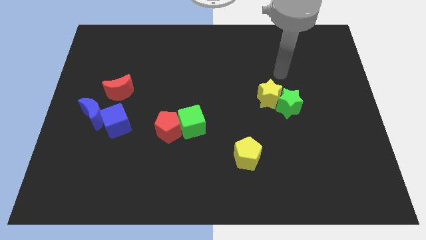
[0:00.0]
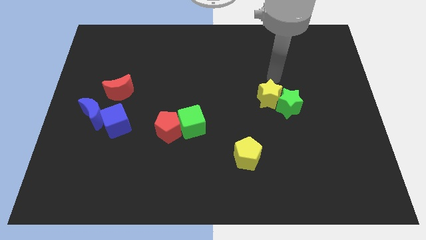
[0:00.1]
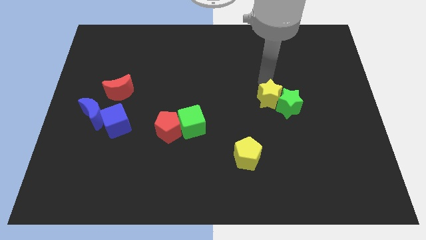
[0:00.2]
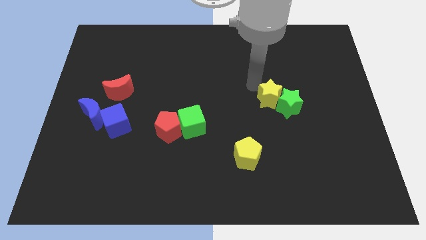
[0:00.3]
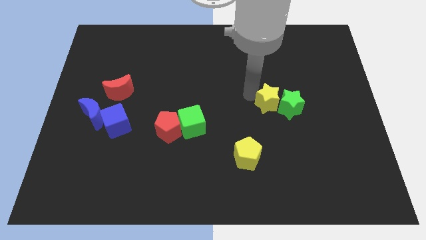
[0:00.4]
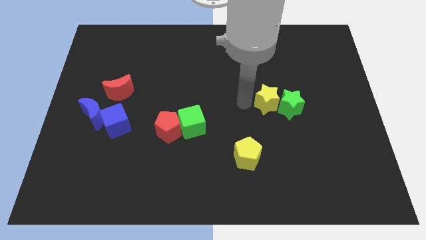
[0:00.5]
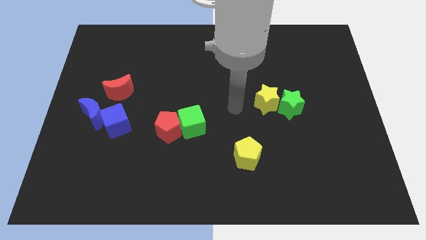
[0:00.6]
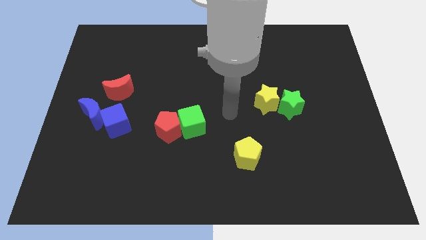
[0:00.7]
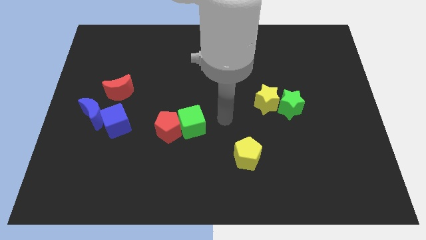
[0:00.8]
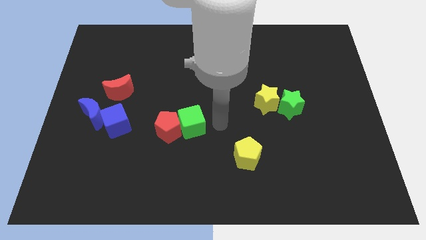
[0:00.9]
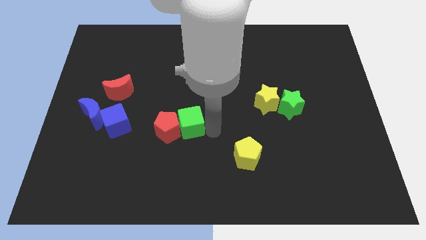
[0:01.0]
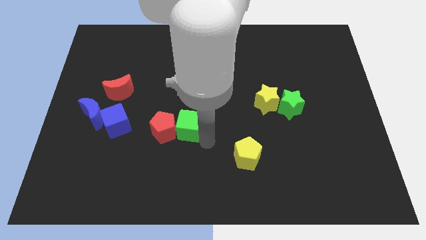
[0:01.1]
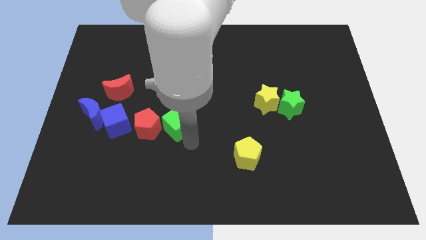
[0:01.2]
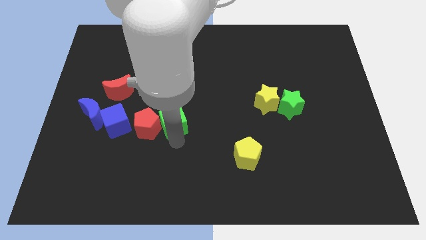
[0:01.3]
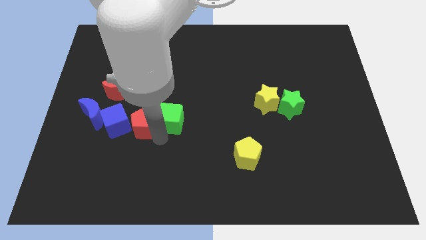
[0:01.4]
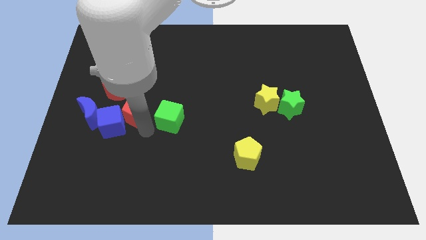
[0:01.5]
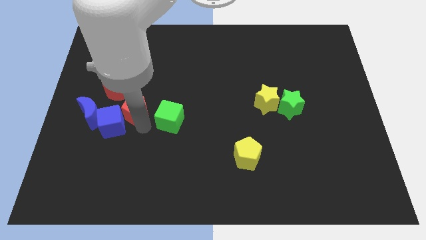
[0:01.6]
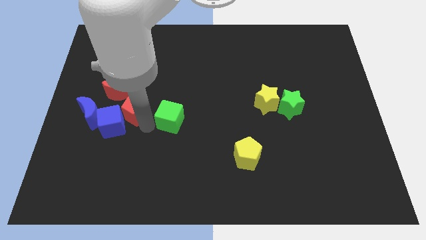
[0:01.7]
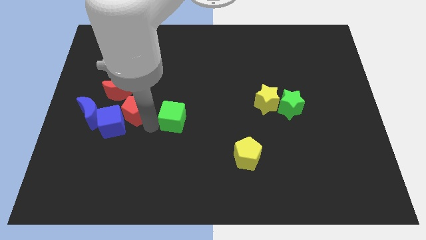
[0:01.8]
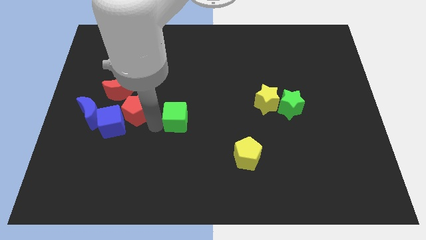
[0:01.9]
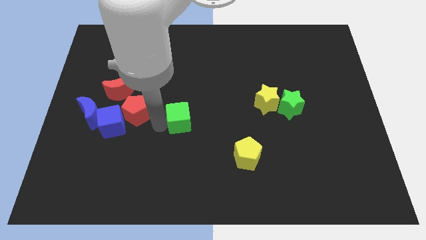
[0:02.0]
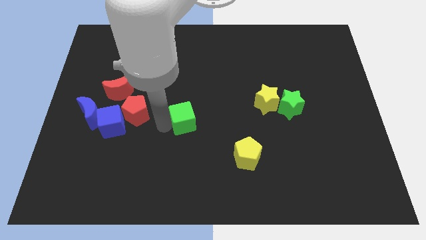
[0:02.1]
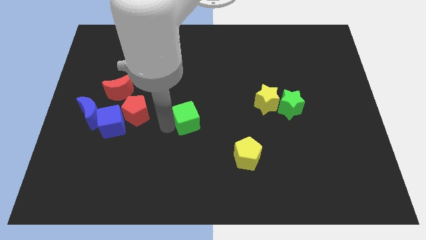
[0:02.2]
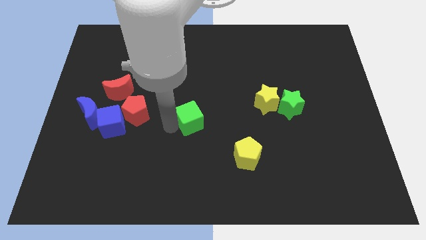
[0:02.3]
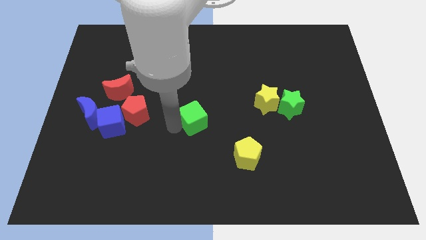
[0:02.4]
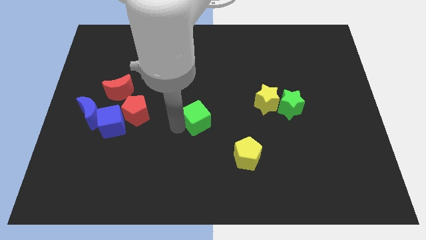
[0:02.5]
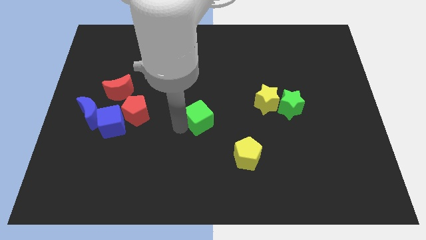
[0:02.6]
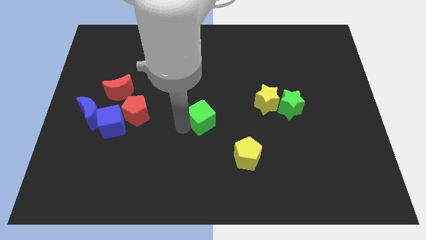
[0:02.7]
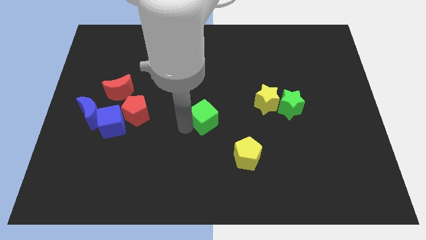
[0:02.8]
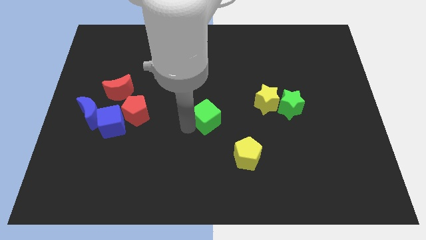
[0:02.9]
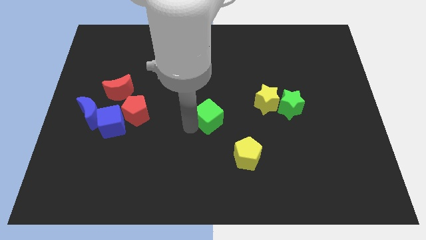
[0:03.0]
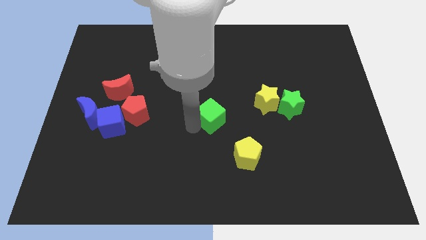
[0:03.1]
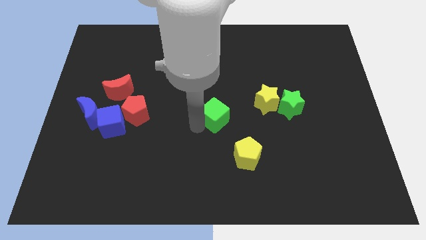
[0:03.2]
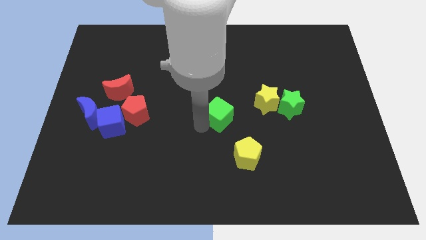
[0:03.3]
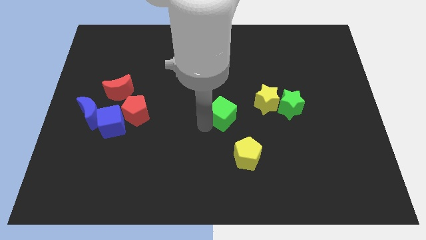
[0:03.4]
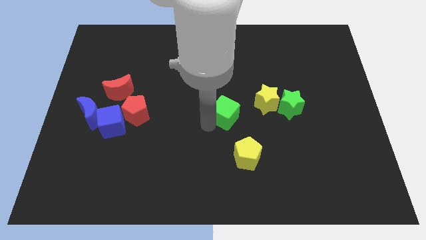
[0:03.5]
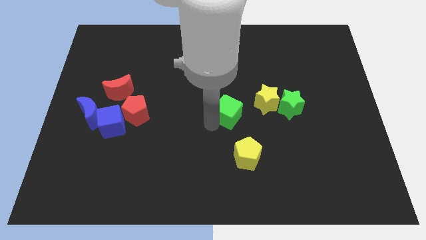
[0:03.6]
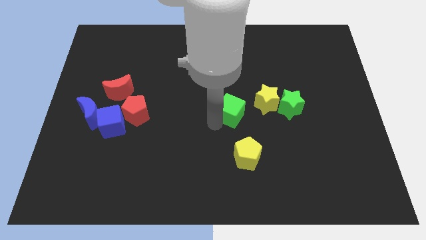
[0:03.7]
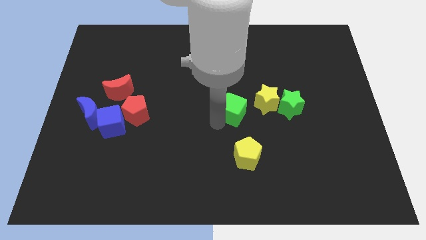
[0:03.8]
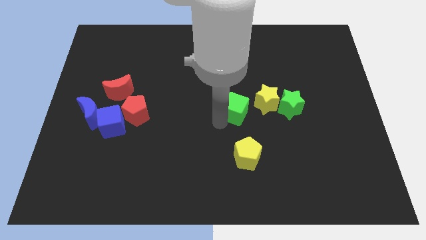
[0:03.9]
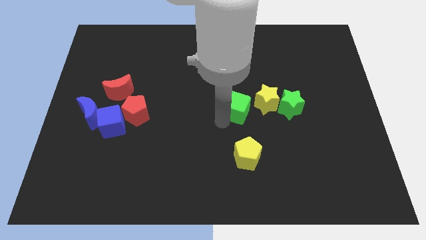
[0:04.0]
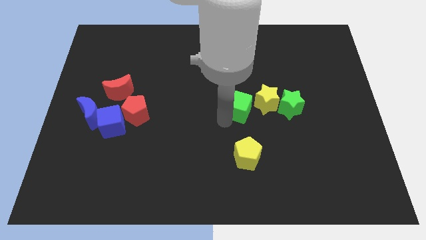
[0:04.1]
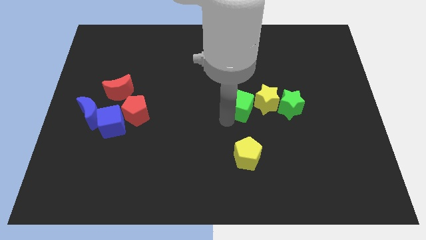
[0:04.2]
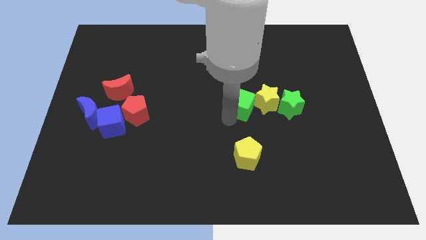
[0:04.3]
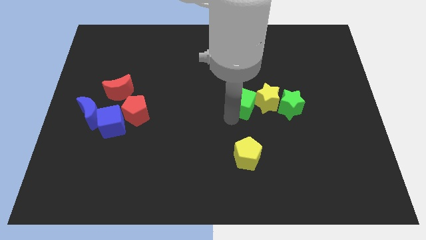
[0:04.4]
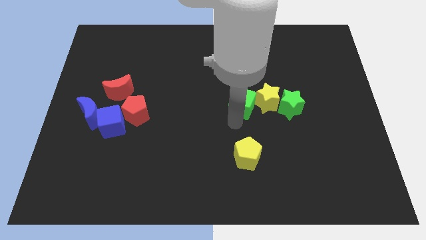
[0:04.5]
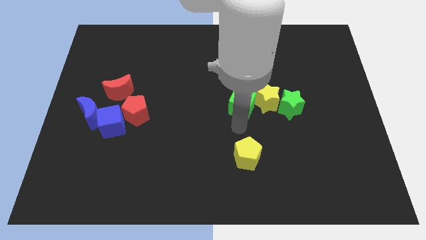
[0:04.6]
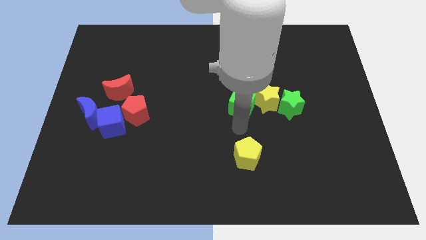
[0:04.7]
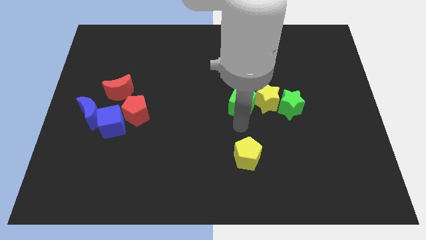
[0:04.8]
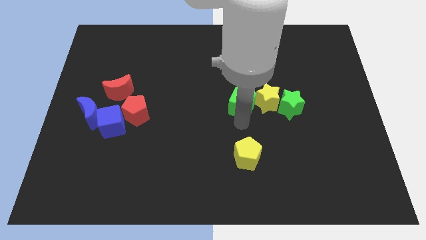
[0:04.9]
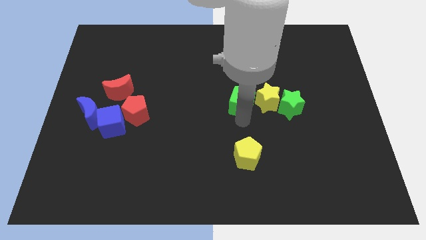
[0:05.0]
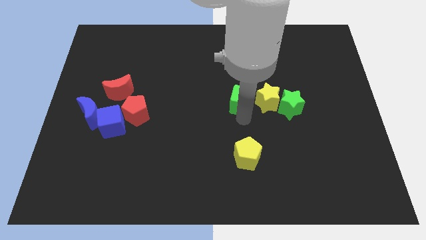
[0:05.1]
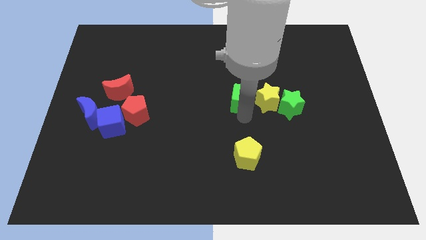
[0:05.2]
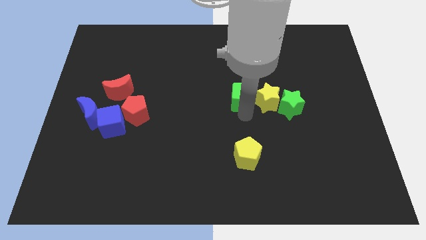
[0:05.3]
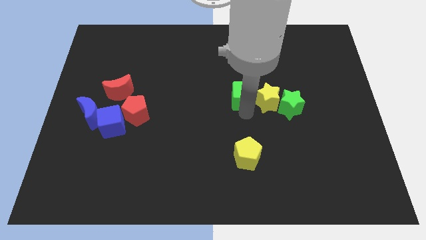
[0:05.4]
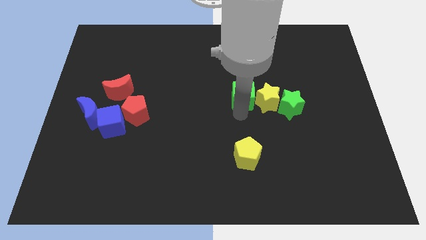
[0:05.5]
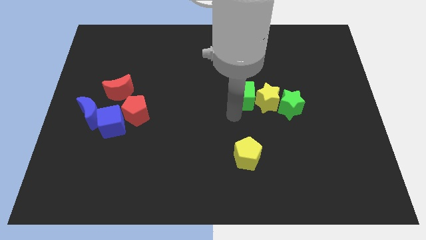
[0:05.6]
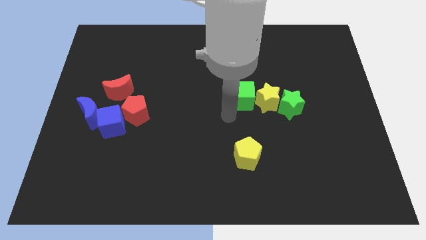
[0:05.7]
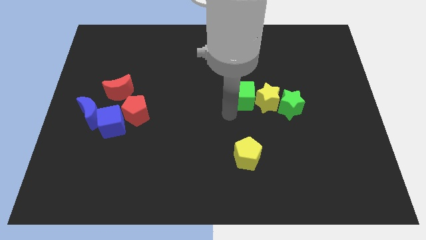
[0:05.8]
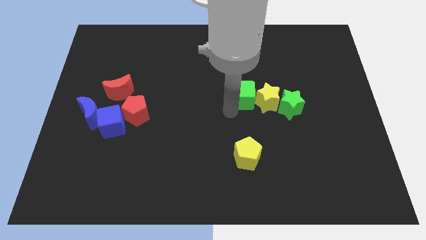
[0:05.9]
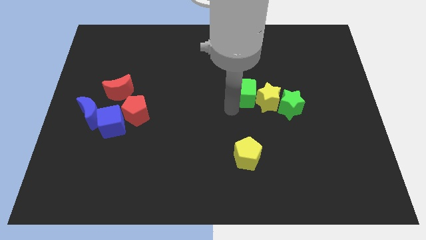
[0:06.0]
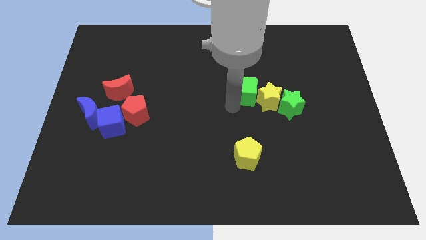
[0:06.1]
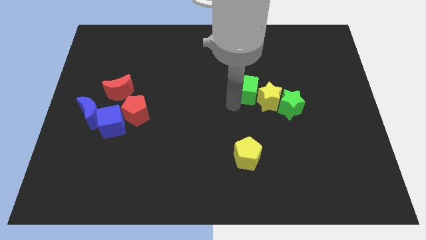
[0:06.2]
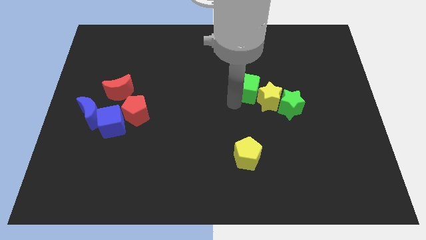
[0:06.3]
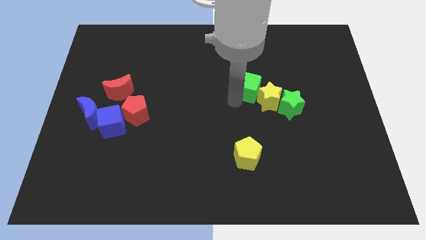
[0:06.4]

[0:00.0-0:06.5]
put the green cube above the yellow star

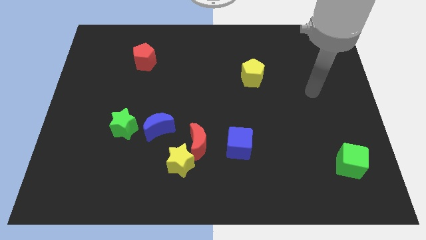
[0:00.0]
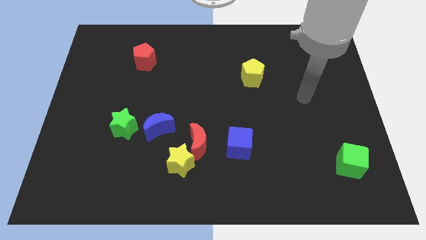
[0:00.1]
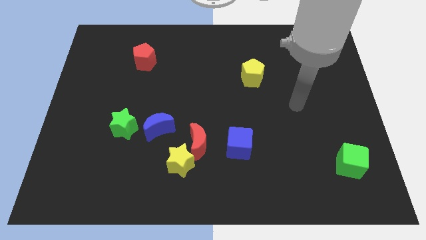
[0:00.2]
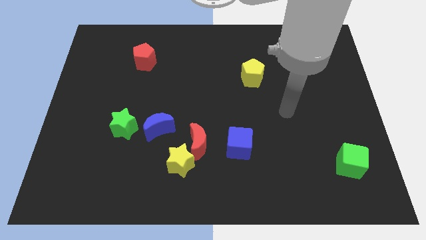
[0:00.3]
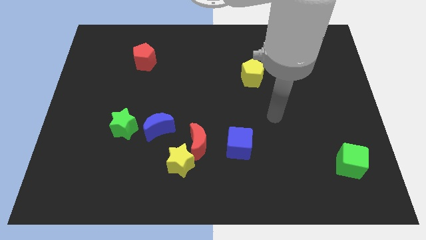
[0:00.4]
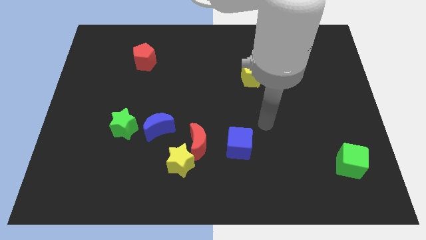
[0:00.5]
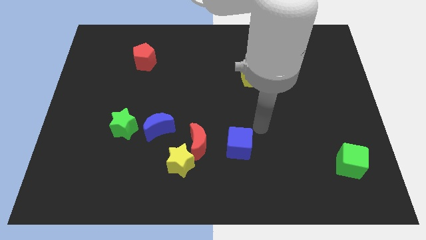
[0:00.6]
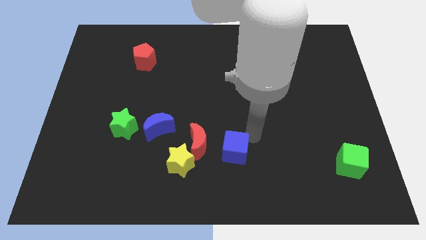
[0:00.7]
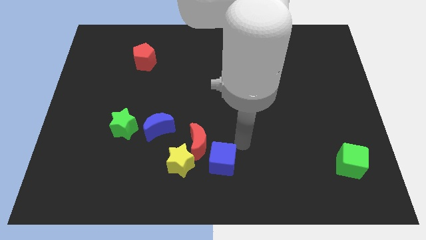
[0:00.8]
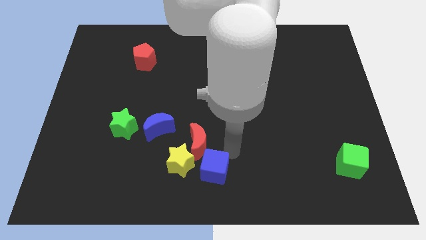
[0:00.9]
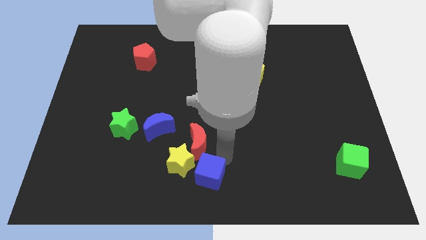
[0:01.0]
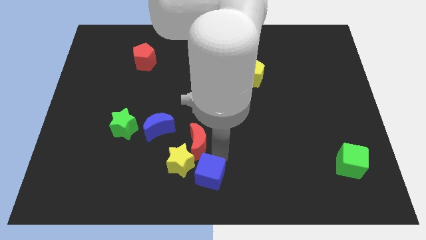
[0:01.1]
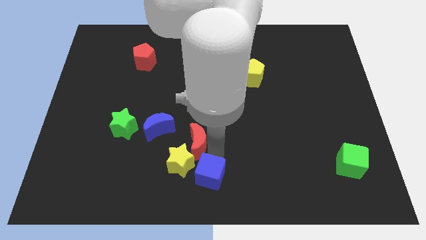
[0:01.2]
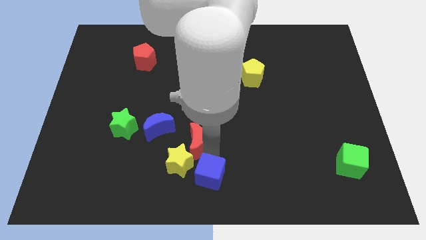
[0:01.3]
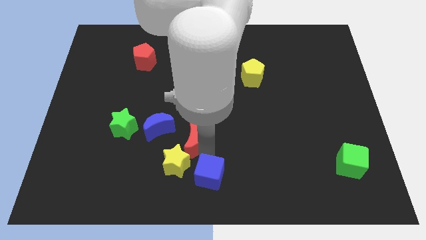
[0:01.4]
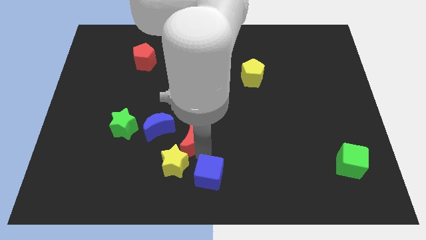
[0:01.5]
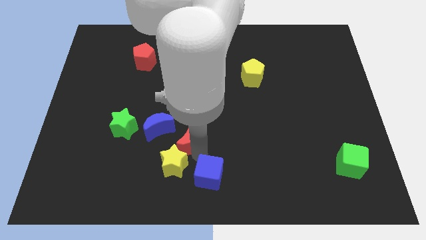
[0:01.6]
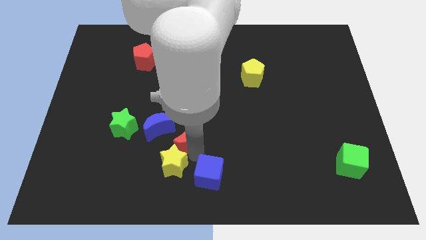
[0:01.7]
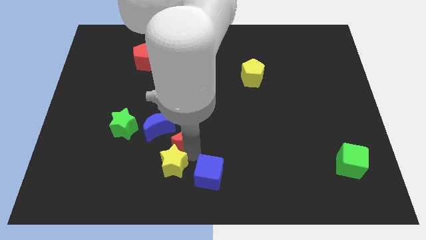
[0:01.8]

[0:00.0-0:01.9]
slide the red moon just right of the green star
